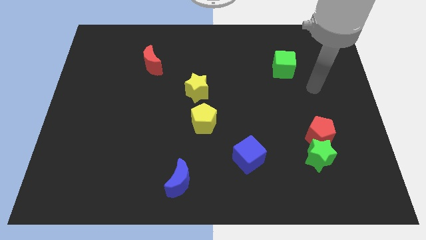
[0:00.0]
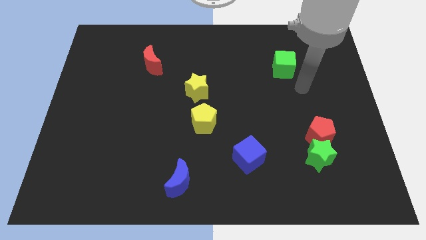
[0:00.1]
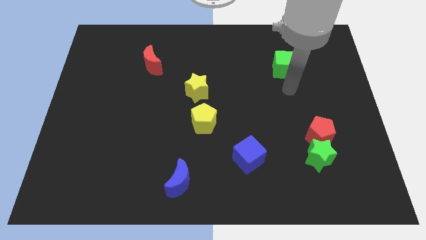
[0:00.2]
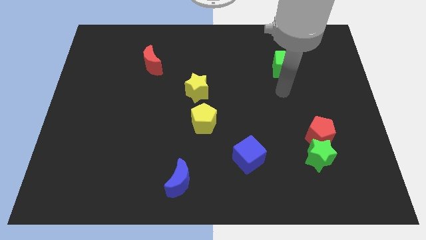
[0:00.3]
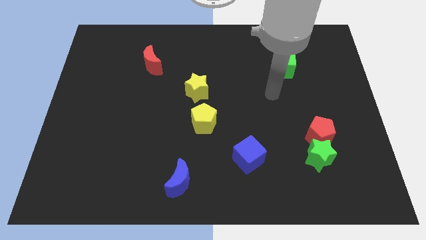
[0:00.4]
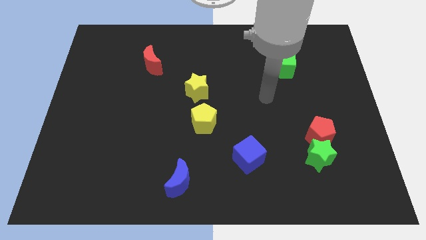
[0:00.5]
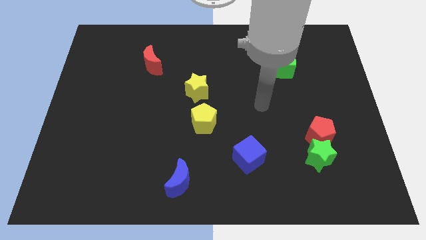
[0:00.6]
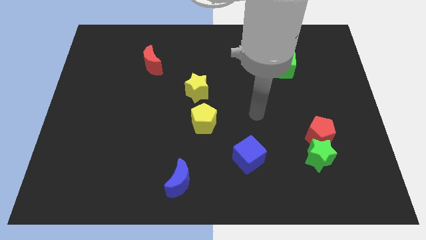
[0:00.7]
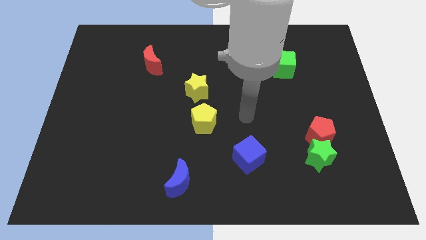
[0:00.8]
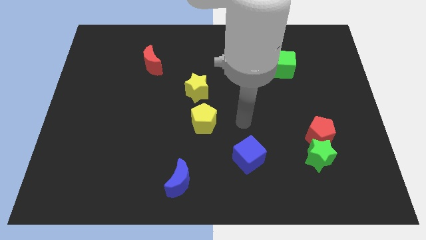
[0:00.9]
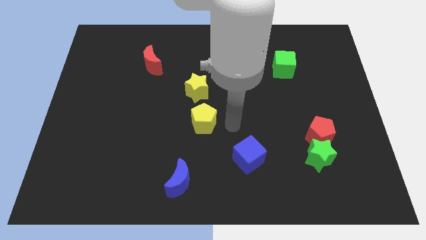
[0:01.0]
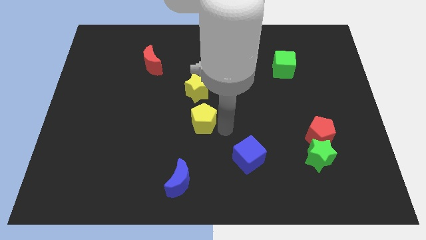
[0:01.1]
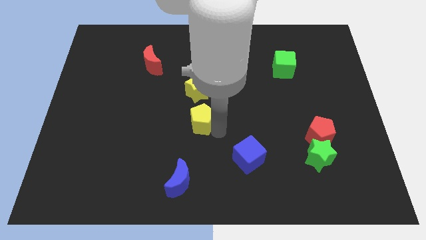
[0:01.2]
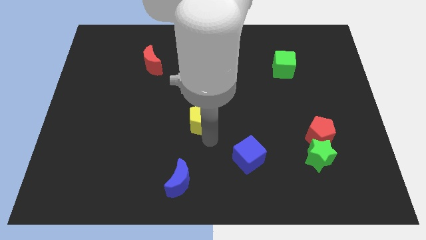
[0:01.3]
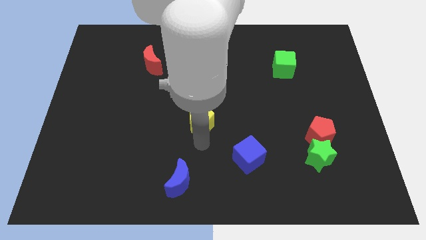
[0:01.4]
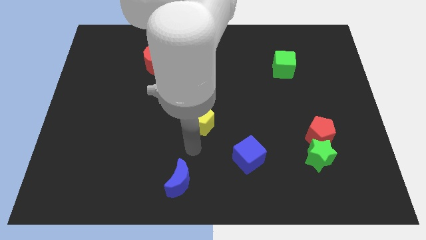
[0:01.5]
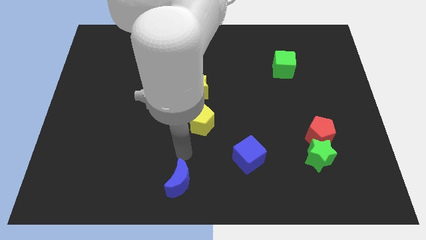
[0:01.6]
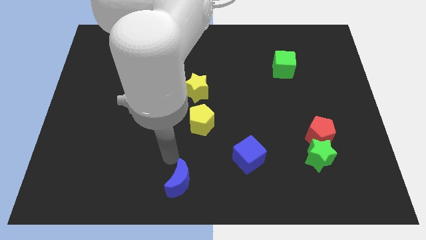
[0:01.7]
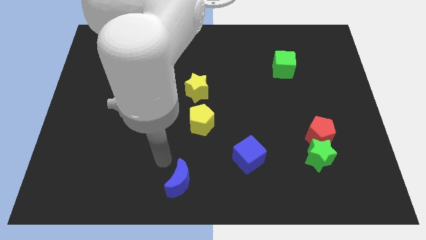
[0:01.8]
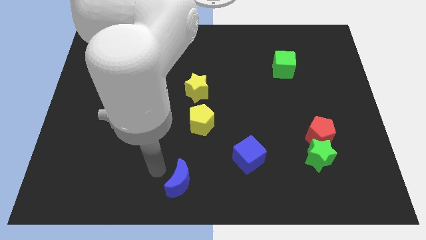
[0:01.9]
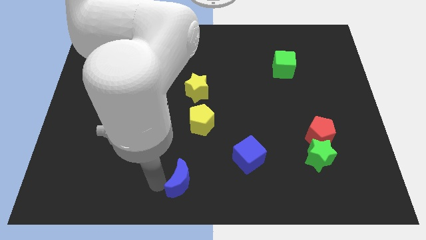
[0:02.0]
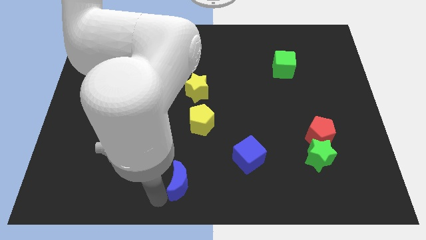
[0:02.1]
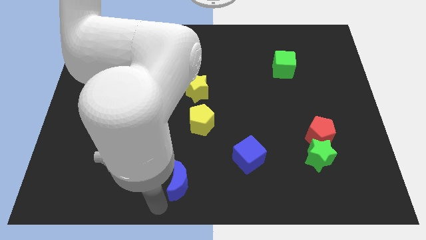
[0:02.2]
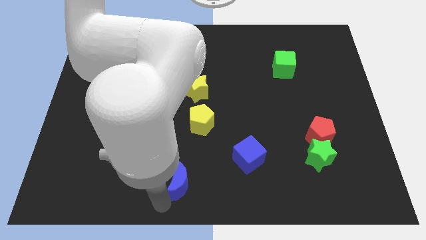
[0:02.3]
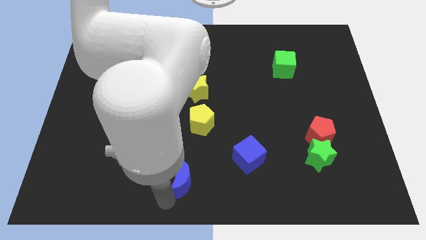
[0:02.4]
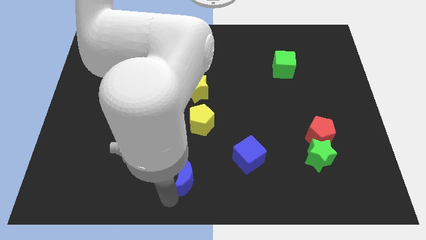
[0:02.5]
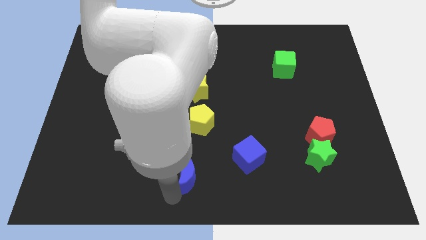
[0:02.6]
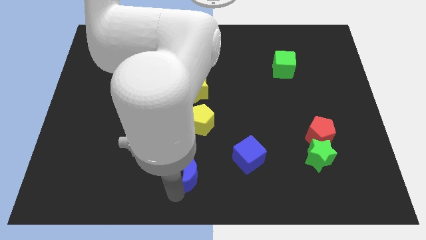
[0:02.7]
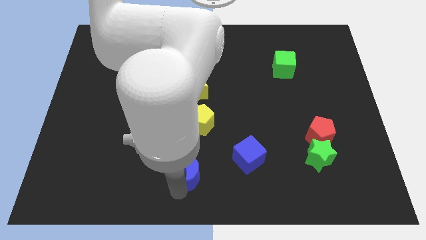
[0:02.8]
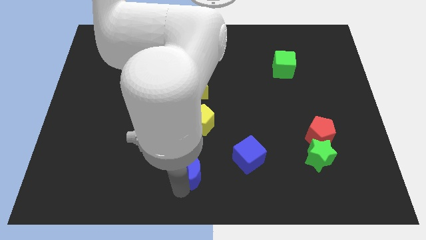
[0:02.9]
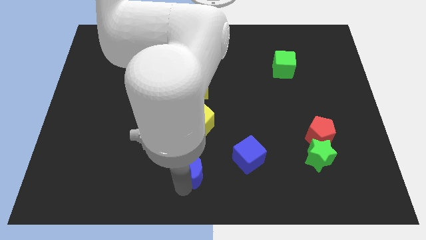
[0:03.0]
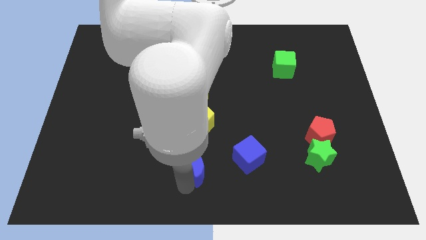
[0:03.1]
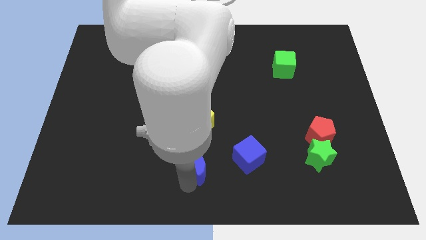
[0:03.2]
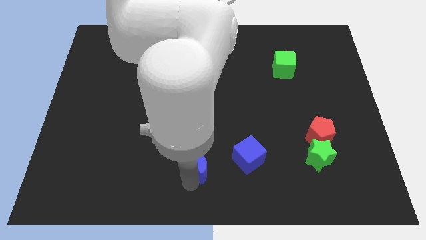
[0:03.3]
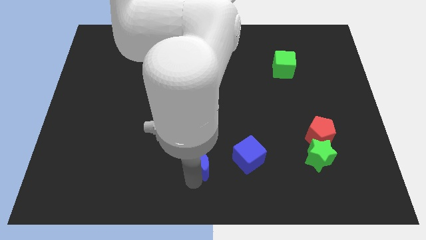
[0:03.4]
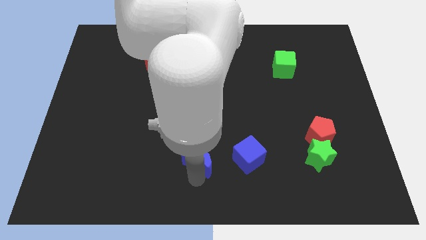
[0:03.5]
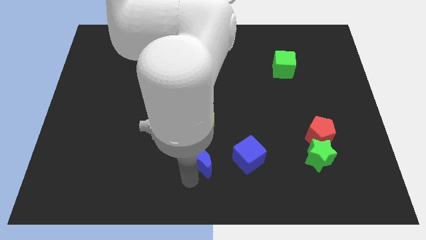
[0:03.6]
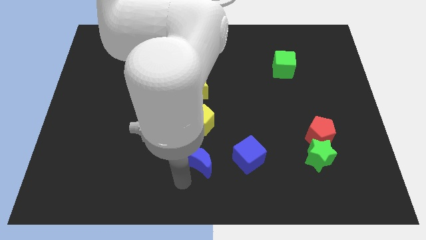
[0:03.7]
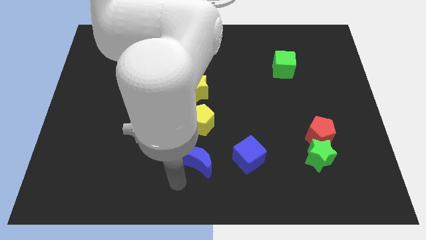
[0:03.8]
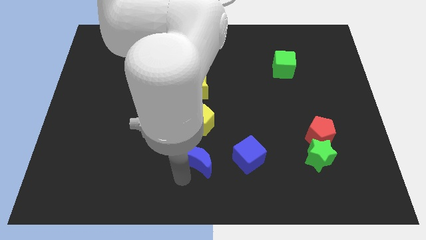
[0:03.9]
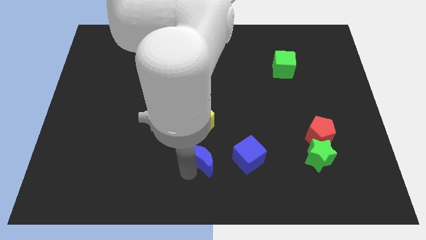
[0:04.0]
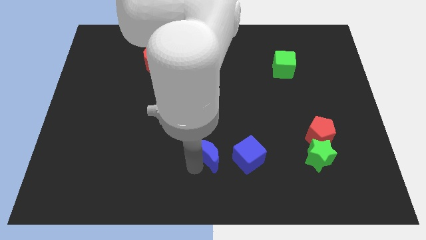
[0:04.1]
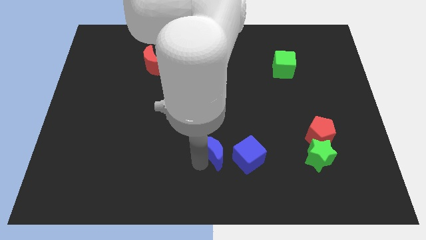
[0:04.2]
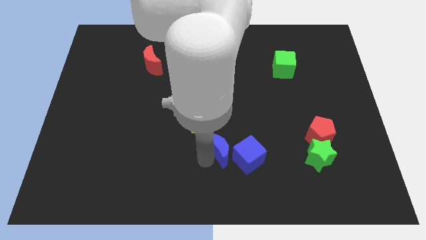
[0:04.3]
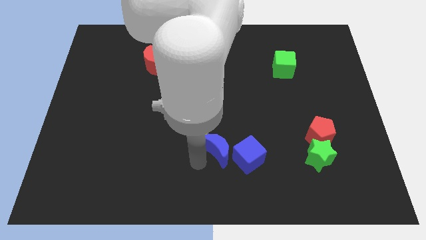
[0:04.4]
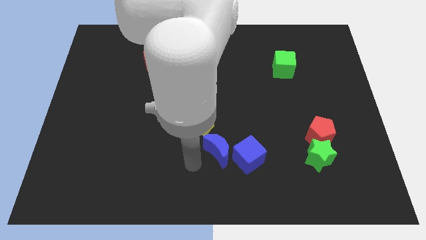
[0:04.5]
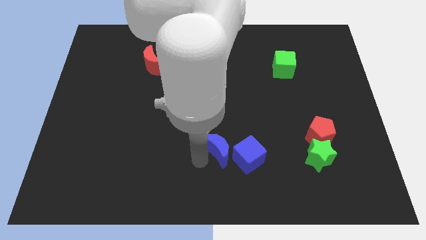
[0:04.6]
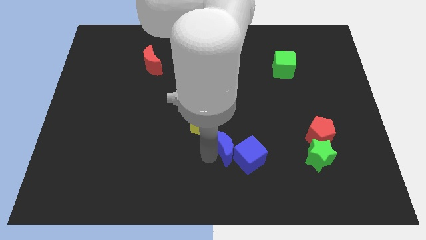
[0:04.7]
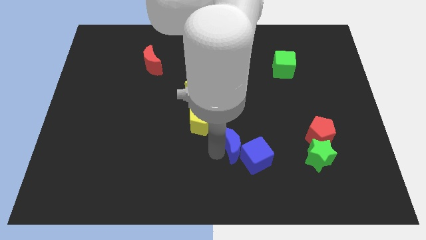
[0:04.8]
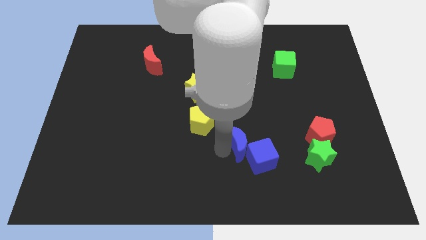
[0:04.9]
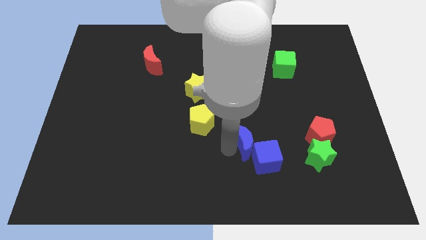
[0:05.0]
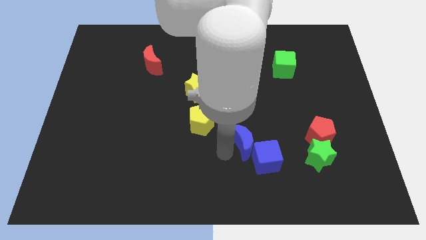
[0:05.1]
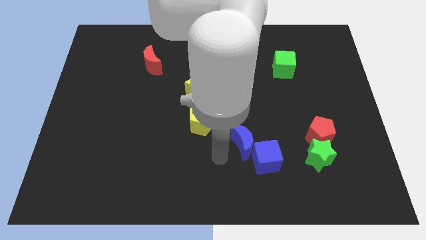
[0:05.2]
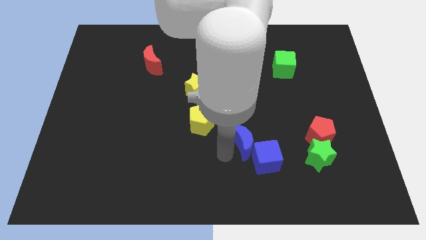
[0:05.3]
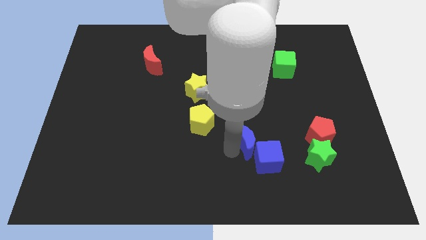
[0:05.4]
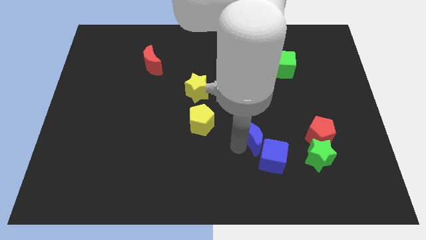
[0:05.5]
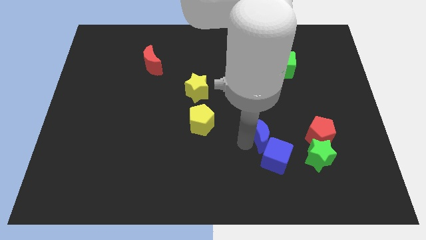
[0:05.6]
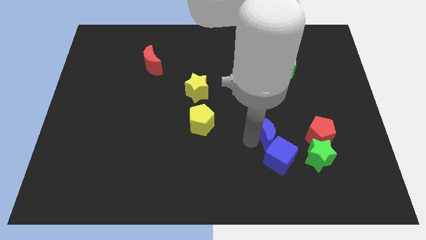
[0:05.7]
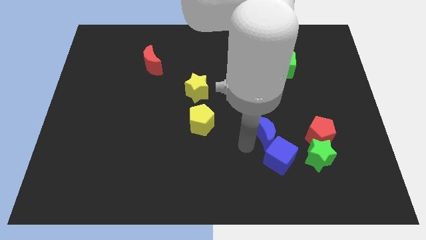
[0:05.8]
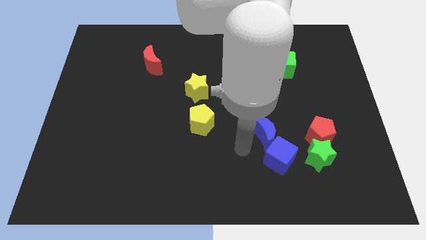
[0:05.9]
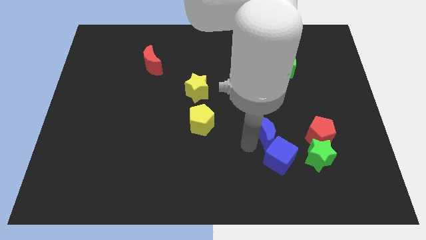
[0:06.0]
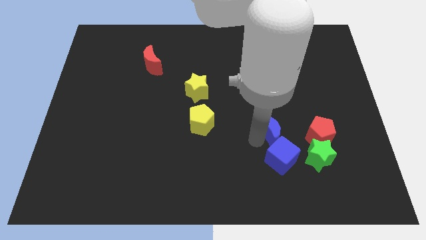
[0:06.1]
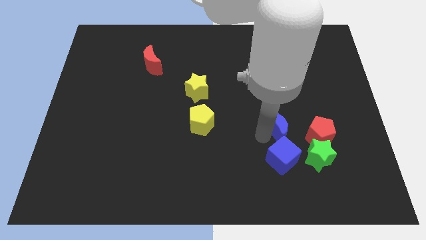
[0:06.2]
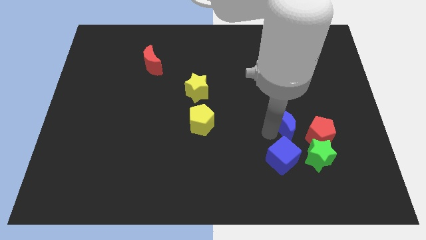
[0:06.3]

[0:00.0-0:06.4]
push the blue moon diagonally up and to the left of the red pentagon
